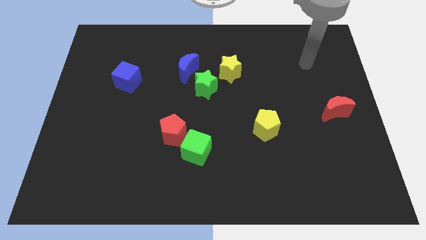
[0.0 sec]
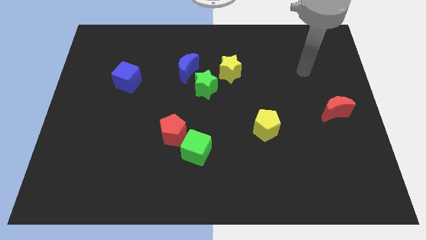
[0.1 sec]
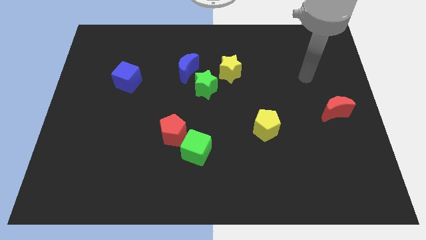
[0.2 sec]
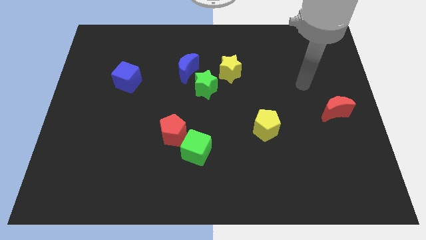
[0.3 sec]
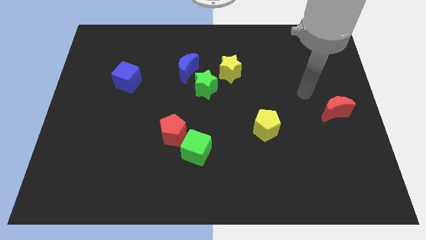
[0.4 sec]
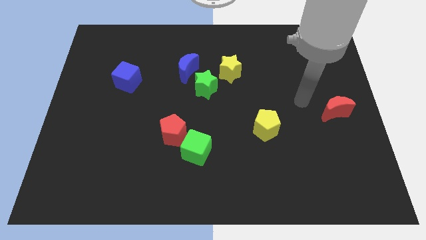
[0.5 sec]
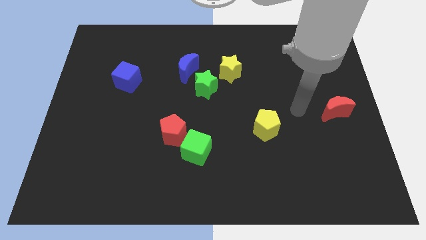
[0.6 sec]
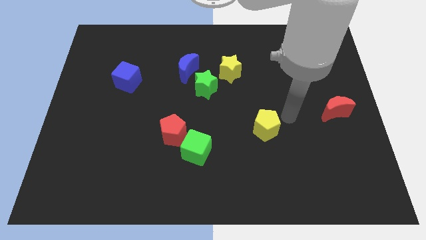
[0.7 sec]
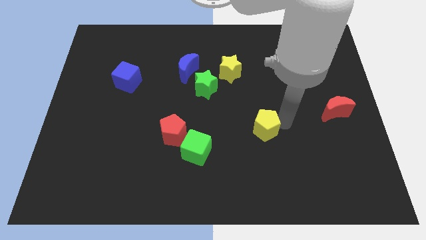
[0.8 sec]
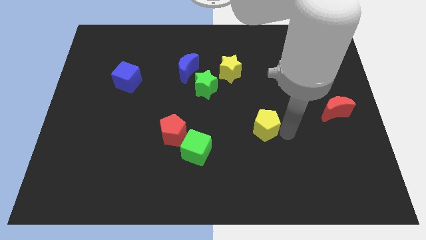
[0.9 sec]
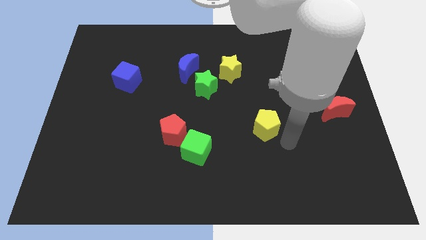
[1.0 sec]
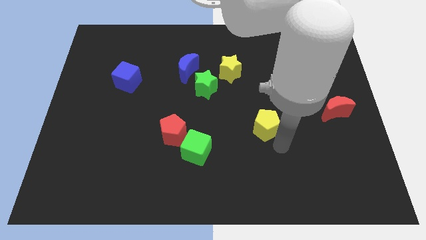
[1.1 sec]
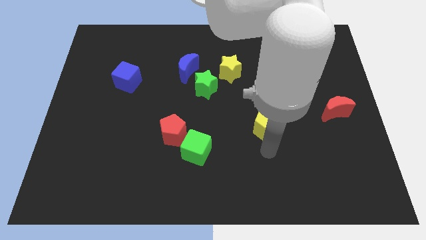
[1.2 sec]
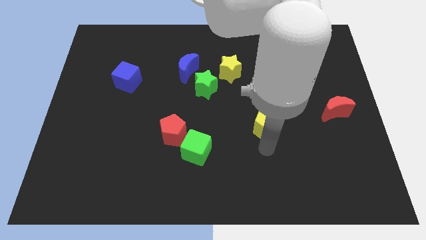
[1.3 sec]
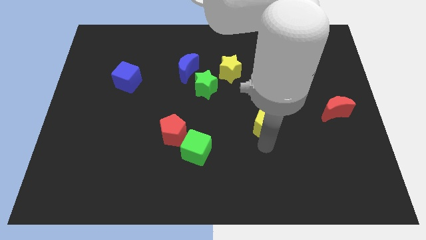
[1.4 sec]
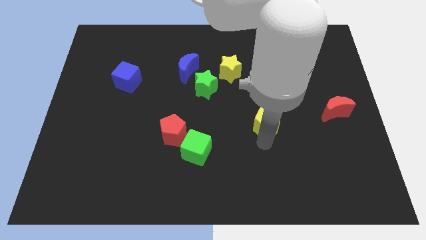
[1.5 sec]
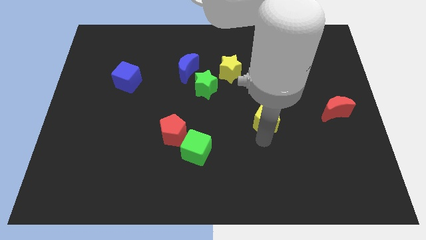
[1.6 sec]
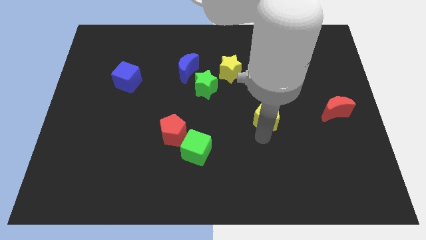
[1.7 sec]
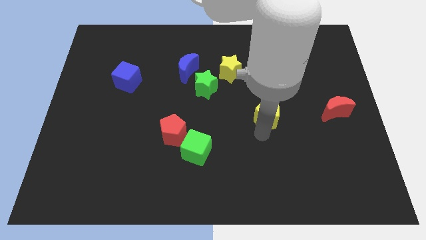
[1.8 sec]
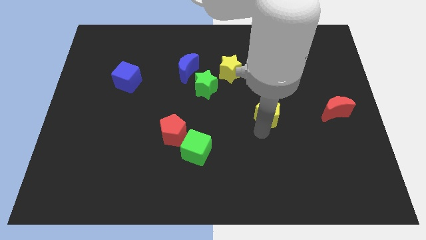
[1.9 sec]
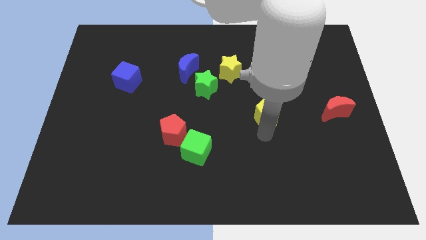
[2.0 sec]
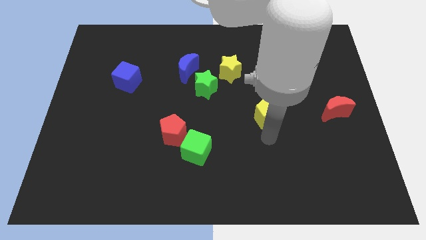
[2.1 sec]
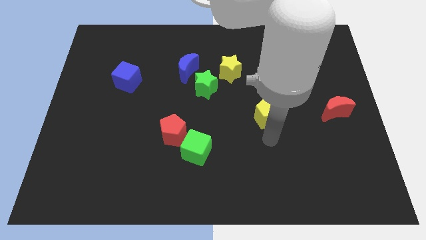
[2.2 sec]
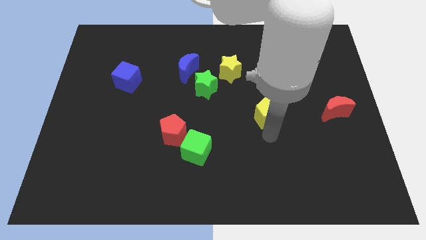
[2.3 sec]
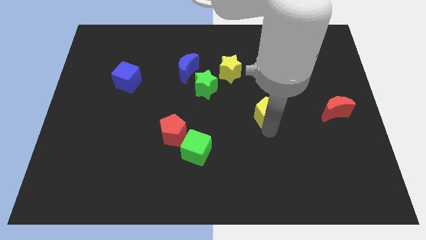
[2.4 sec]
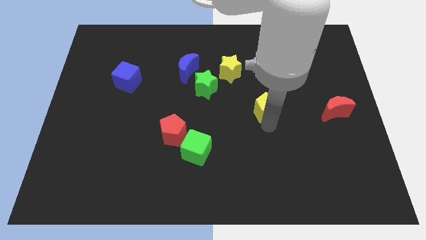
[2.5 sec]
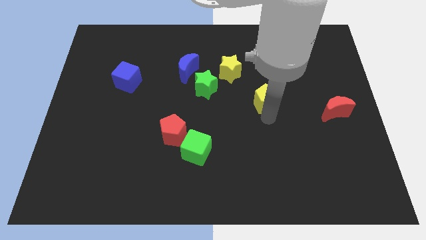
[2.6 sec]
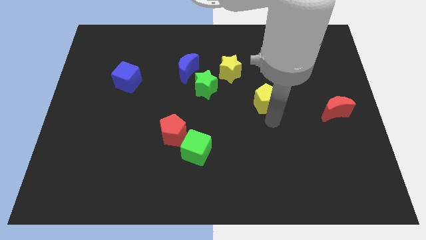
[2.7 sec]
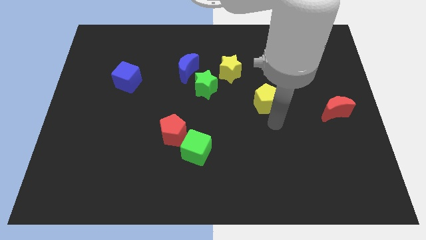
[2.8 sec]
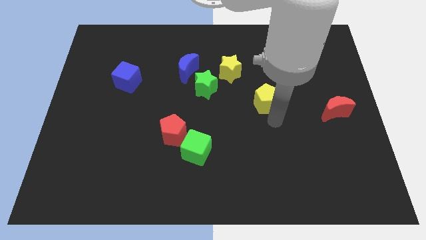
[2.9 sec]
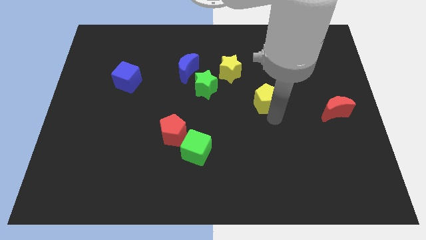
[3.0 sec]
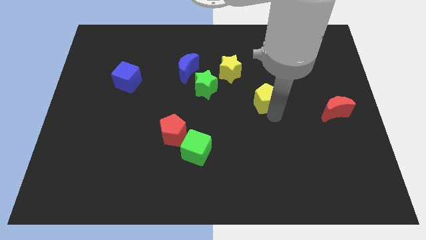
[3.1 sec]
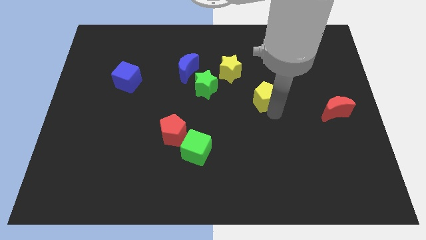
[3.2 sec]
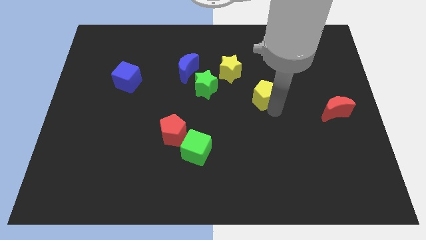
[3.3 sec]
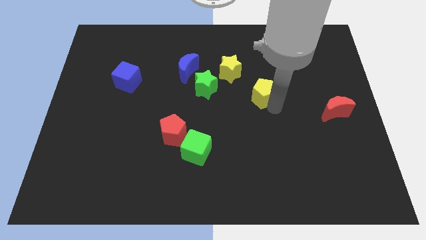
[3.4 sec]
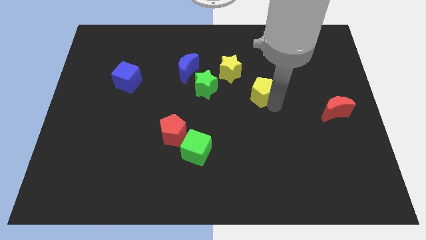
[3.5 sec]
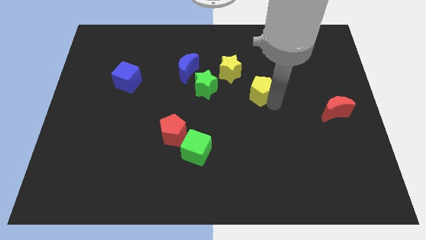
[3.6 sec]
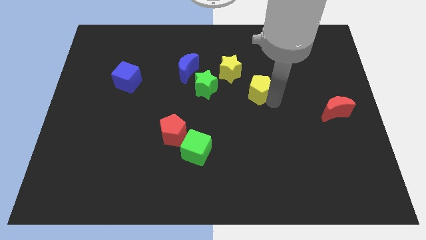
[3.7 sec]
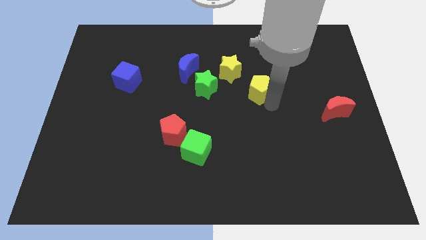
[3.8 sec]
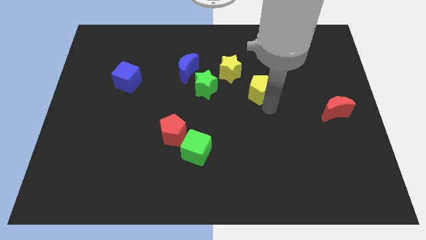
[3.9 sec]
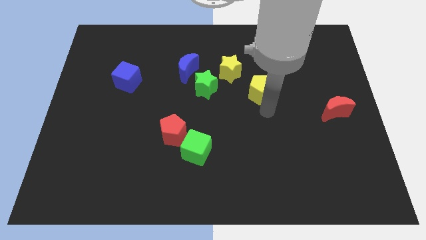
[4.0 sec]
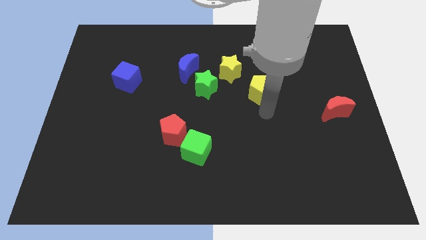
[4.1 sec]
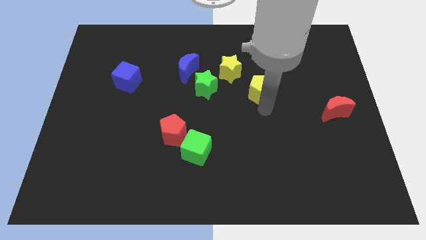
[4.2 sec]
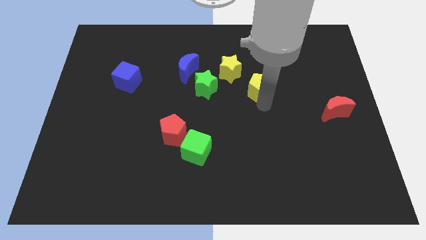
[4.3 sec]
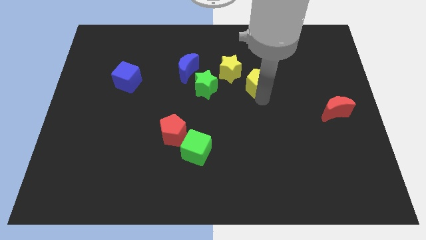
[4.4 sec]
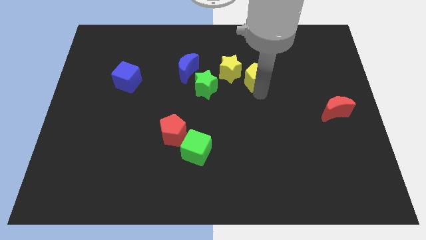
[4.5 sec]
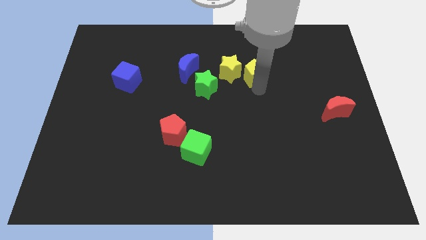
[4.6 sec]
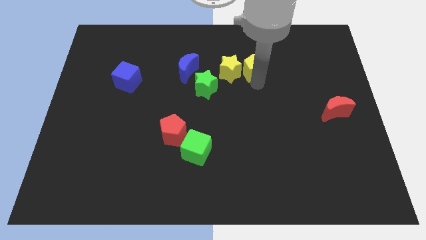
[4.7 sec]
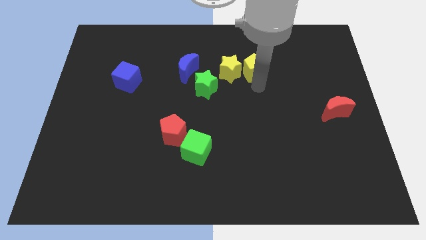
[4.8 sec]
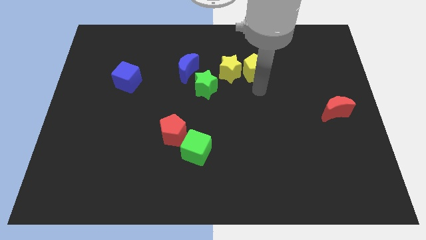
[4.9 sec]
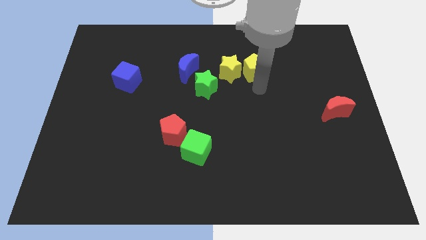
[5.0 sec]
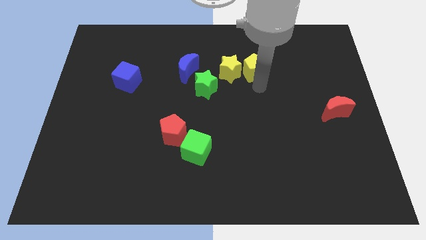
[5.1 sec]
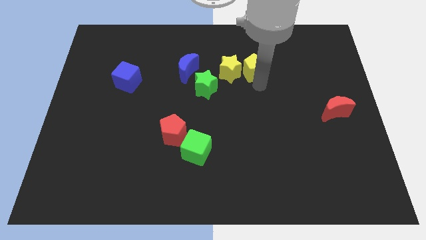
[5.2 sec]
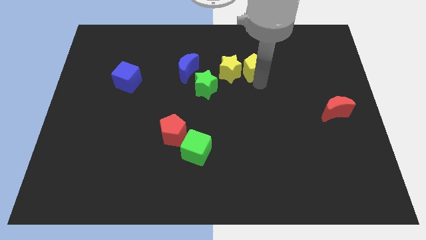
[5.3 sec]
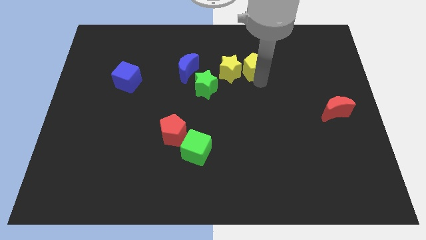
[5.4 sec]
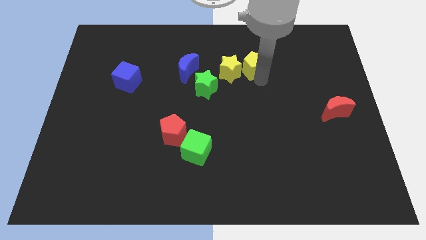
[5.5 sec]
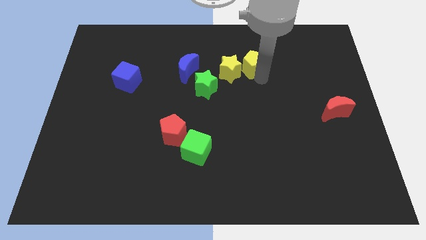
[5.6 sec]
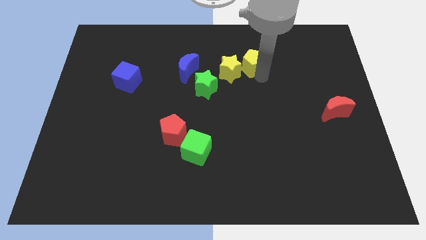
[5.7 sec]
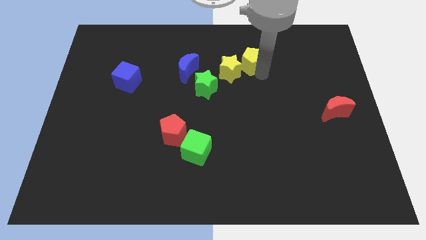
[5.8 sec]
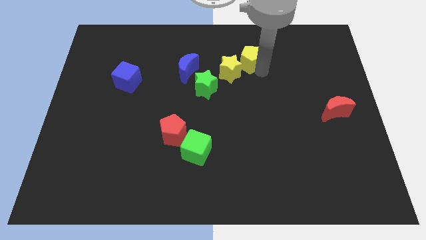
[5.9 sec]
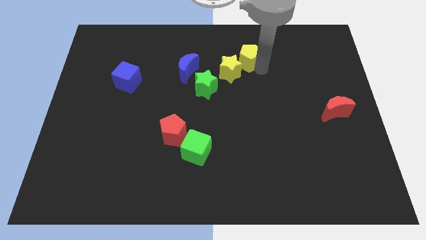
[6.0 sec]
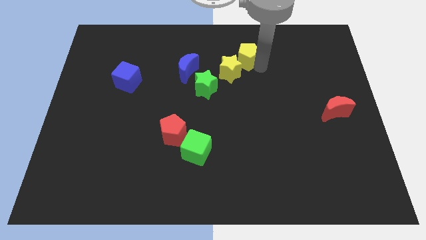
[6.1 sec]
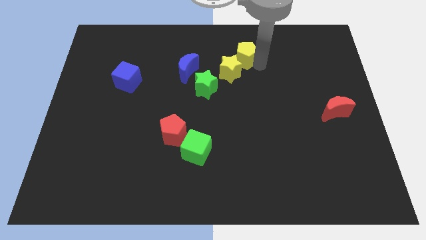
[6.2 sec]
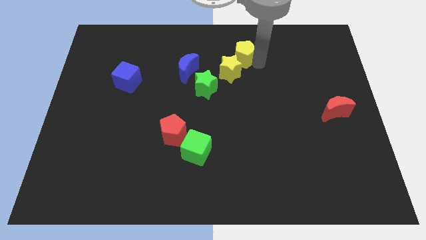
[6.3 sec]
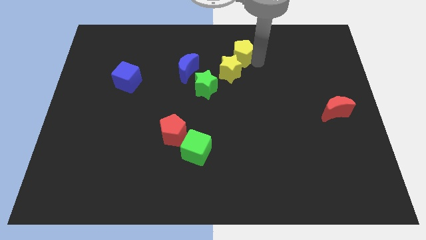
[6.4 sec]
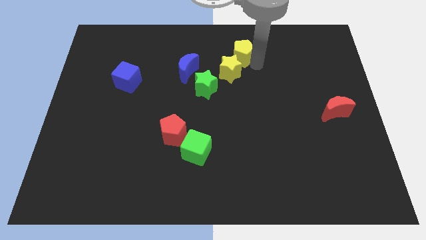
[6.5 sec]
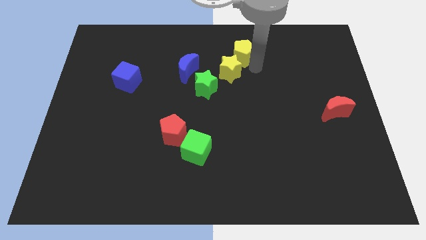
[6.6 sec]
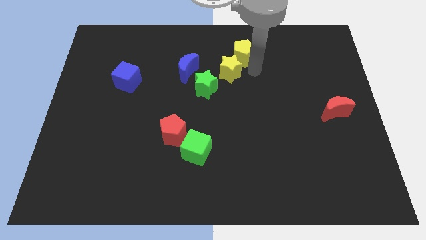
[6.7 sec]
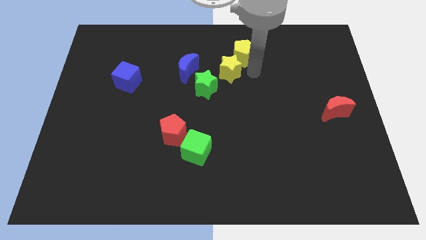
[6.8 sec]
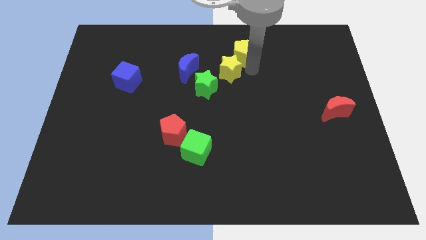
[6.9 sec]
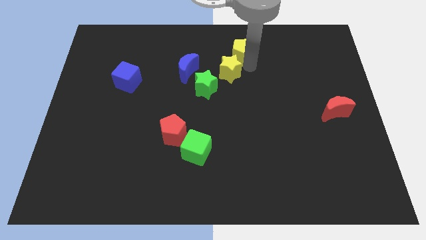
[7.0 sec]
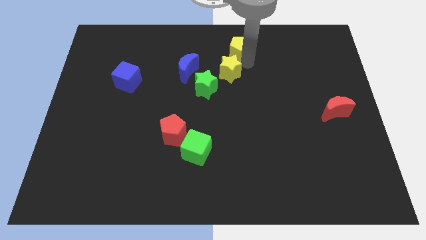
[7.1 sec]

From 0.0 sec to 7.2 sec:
move the yellow pentagon to the top

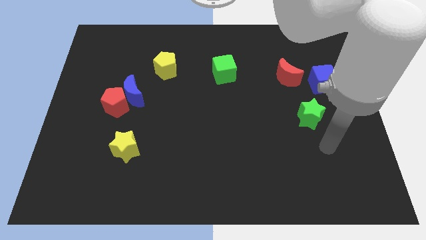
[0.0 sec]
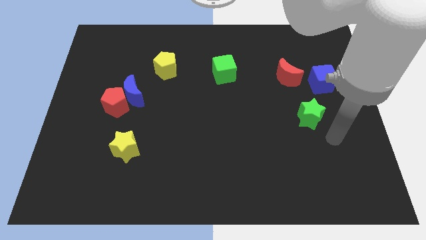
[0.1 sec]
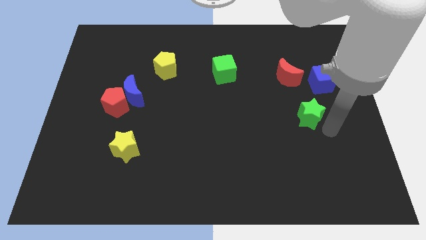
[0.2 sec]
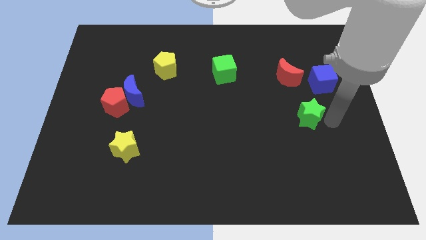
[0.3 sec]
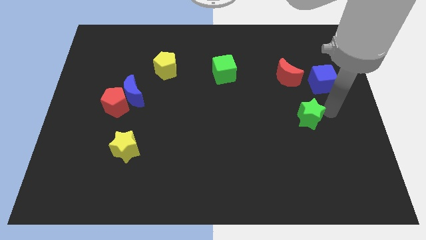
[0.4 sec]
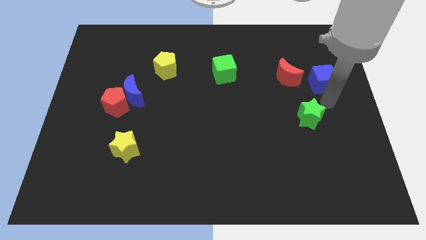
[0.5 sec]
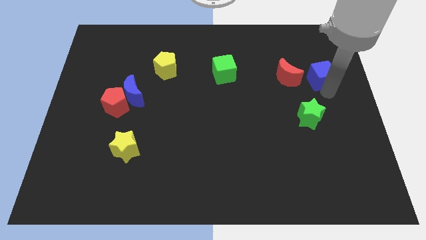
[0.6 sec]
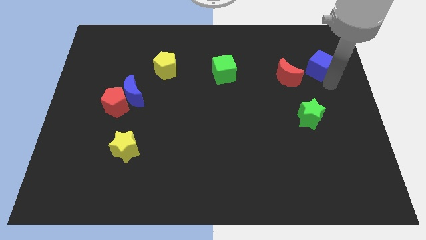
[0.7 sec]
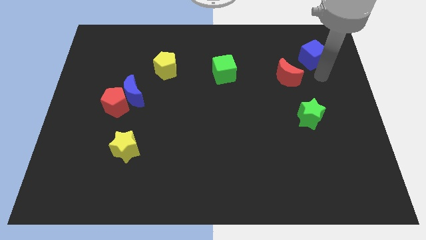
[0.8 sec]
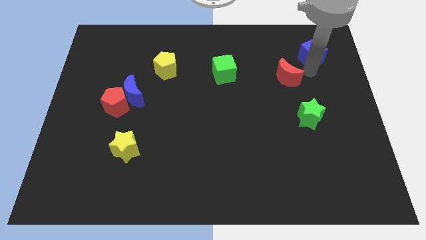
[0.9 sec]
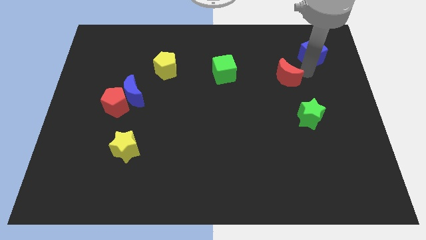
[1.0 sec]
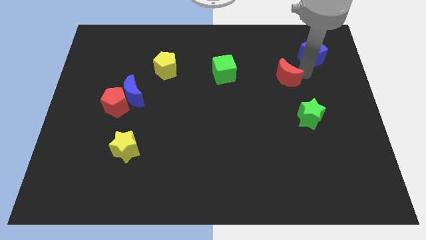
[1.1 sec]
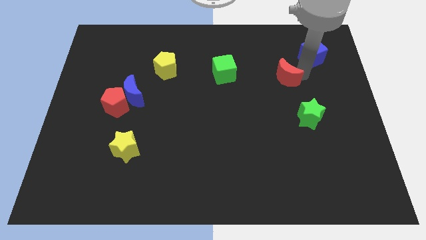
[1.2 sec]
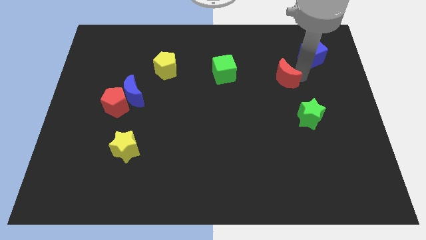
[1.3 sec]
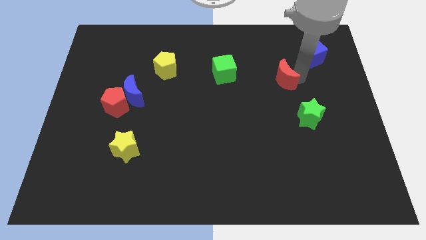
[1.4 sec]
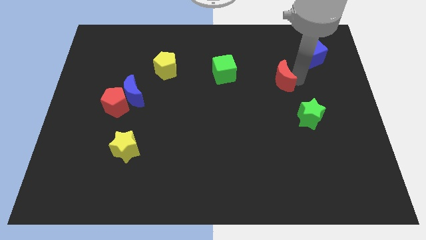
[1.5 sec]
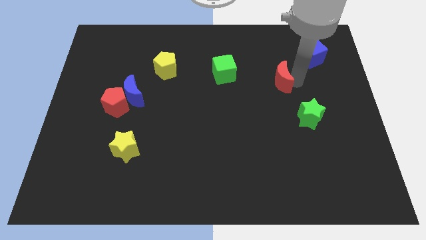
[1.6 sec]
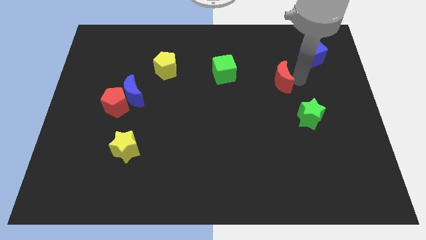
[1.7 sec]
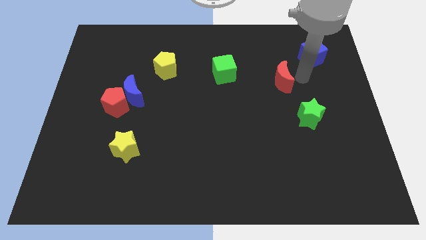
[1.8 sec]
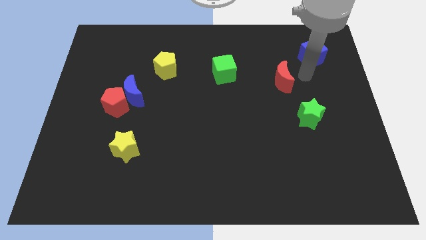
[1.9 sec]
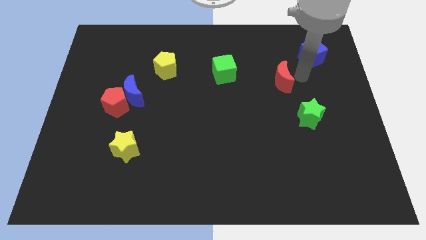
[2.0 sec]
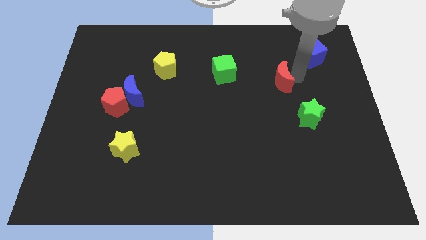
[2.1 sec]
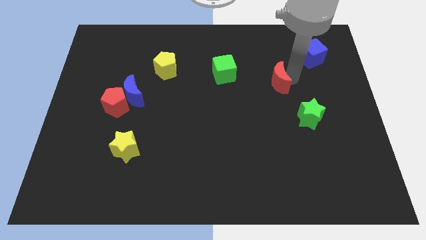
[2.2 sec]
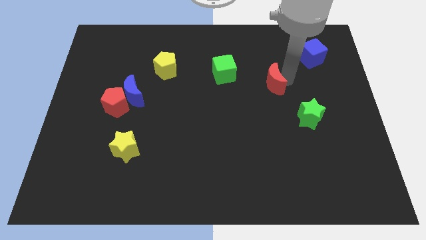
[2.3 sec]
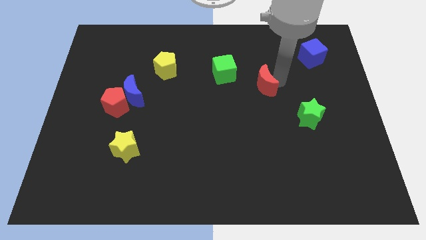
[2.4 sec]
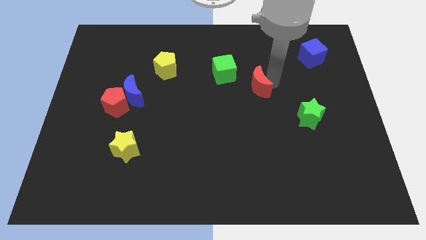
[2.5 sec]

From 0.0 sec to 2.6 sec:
move the red moon to the center
